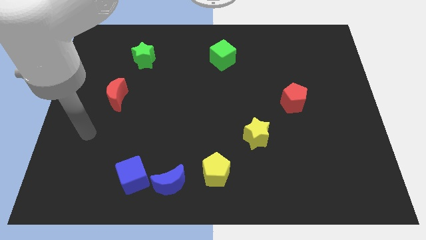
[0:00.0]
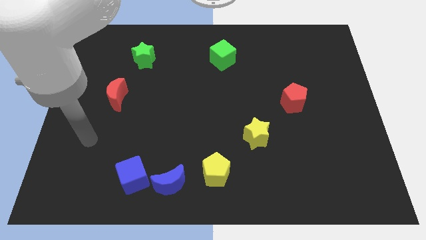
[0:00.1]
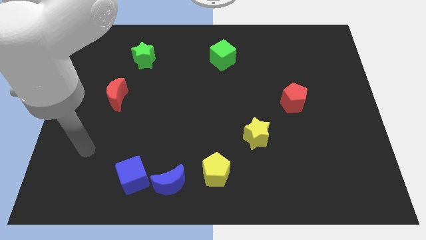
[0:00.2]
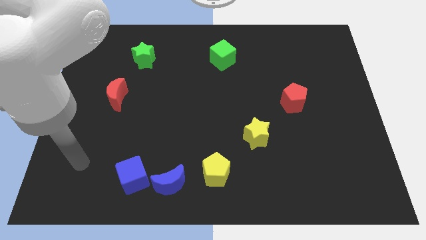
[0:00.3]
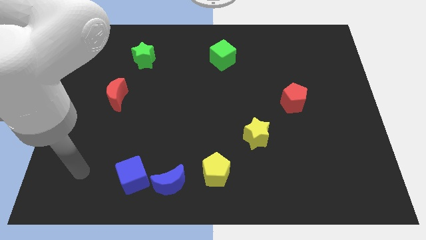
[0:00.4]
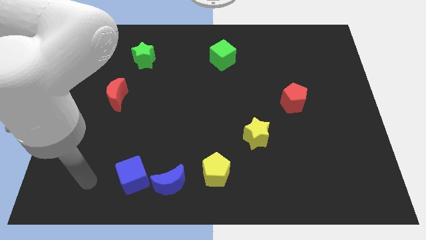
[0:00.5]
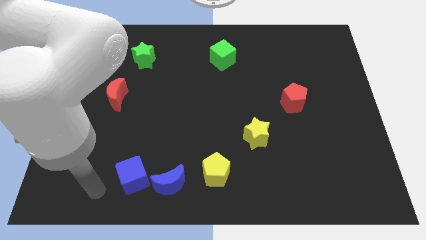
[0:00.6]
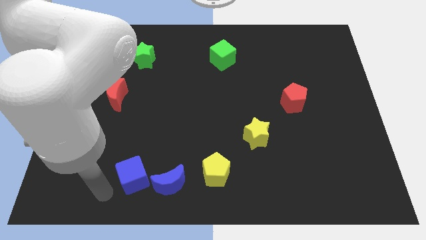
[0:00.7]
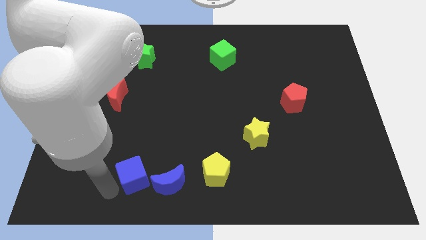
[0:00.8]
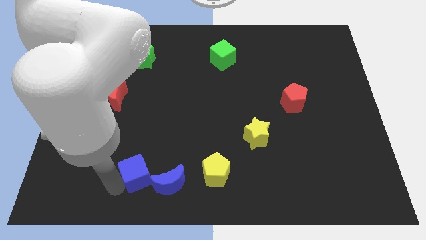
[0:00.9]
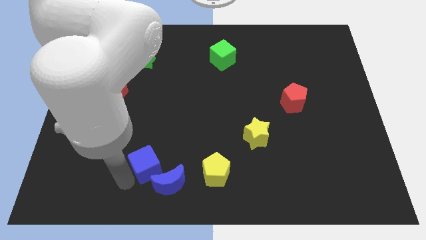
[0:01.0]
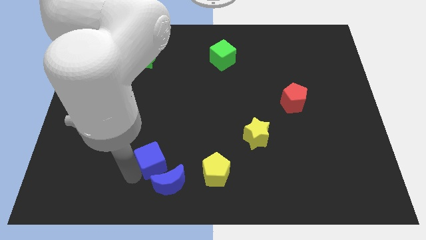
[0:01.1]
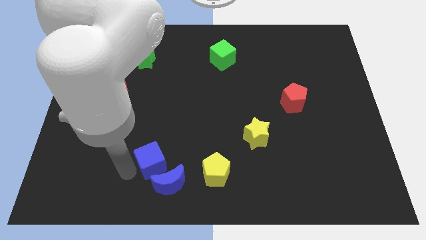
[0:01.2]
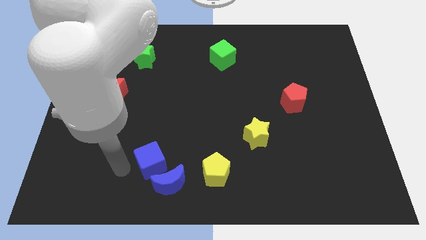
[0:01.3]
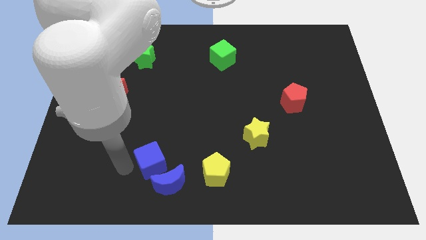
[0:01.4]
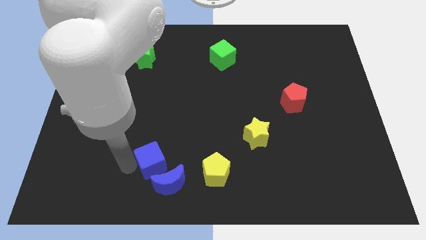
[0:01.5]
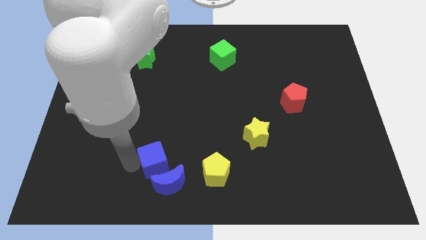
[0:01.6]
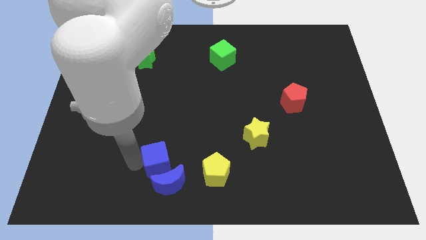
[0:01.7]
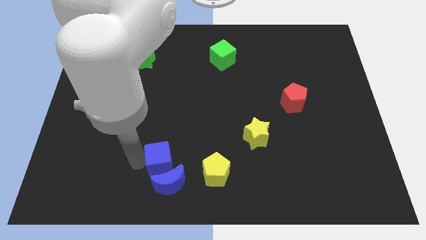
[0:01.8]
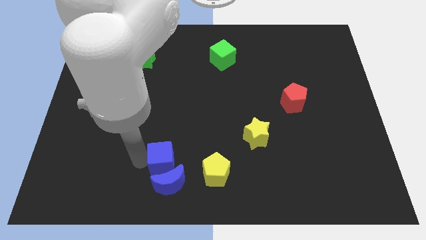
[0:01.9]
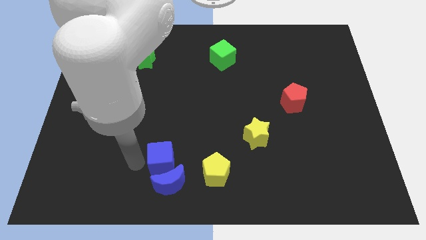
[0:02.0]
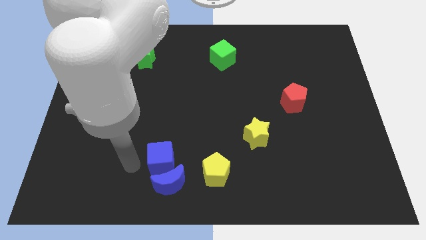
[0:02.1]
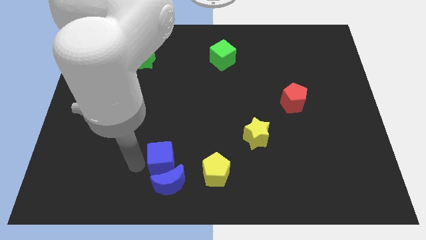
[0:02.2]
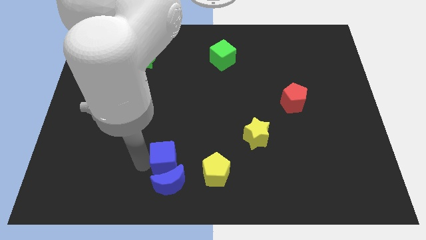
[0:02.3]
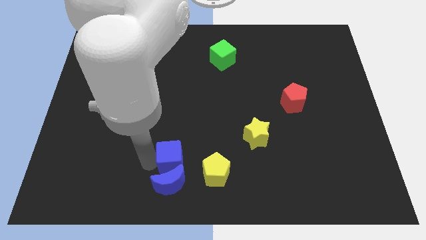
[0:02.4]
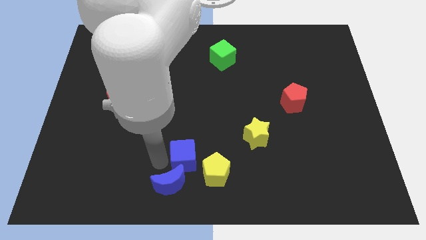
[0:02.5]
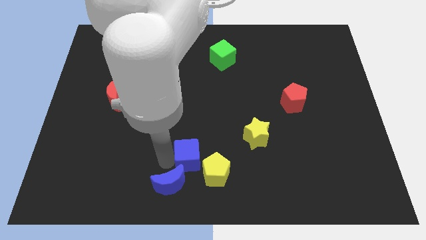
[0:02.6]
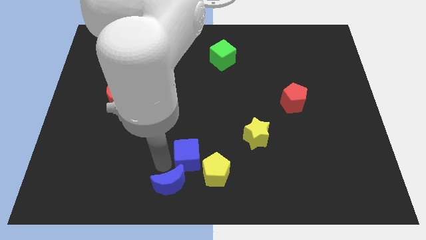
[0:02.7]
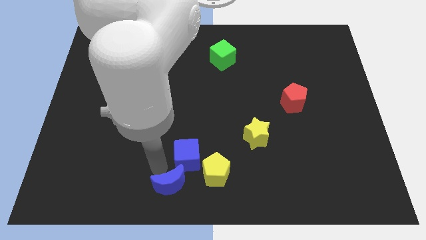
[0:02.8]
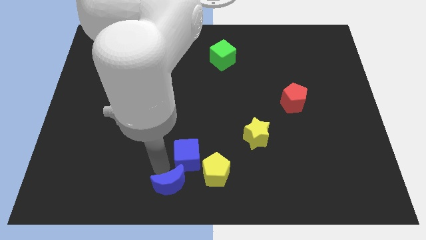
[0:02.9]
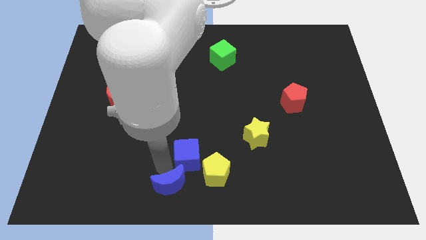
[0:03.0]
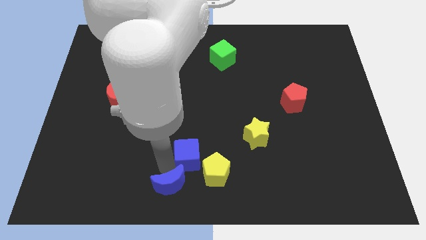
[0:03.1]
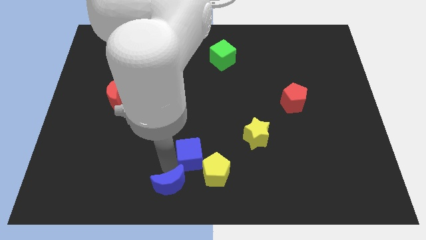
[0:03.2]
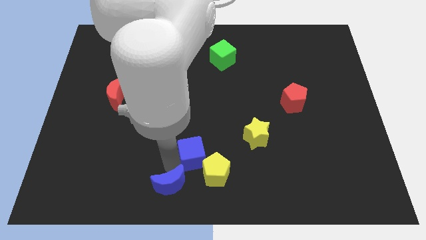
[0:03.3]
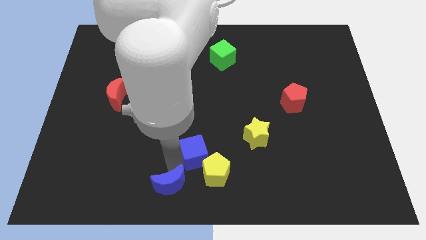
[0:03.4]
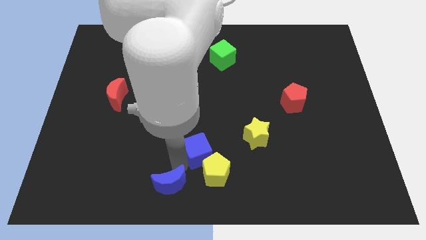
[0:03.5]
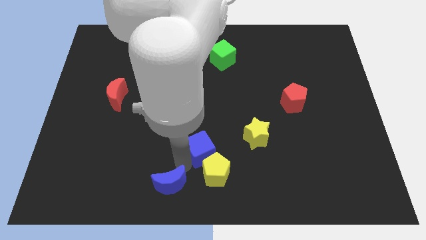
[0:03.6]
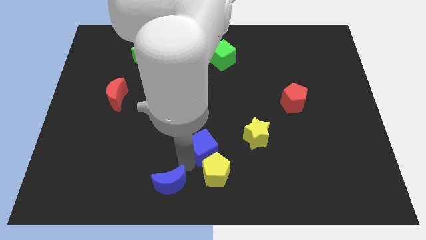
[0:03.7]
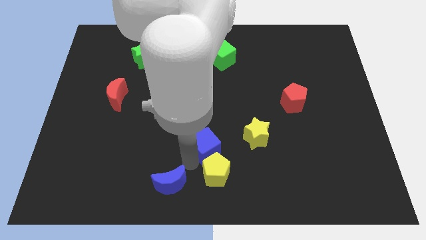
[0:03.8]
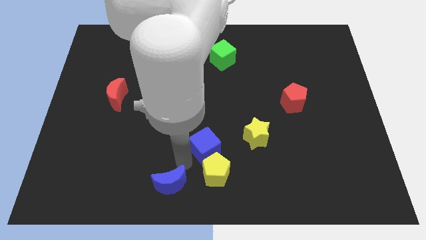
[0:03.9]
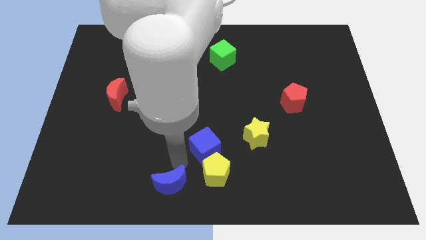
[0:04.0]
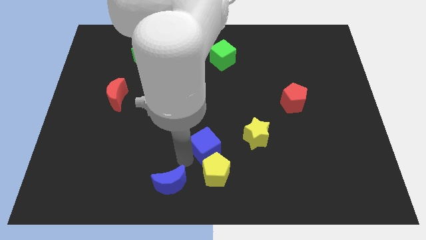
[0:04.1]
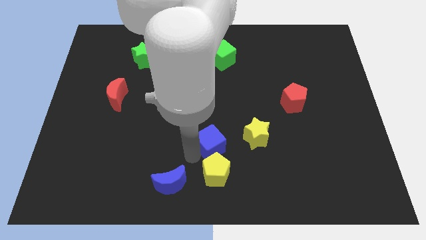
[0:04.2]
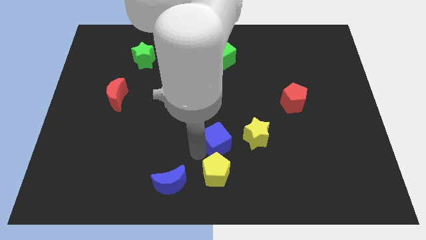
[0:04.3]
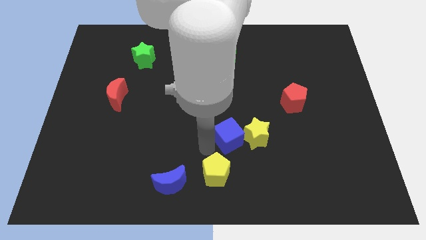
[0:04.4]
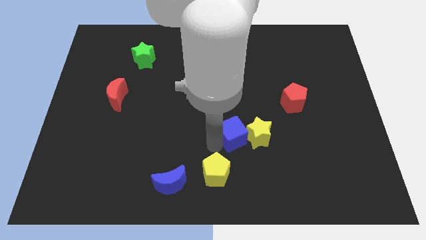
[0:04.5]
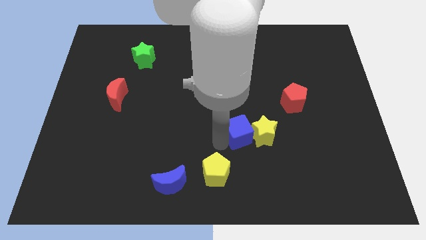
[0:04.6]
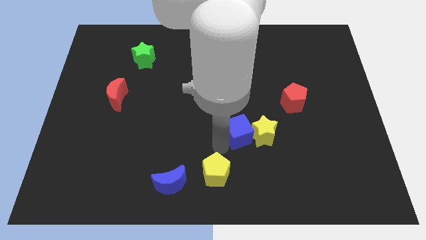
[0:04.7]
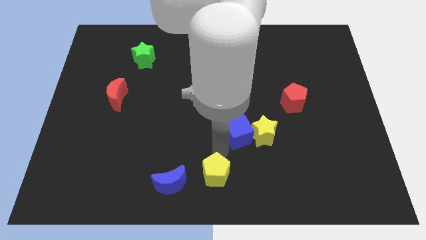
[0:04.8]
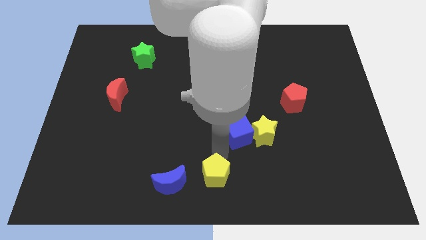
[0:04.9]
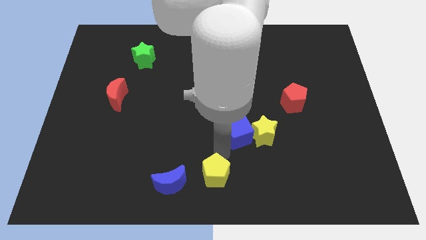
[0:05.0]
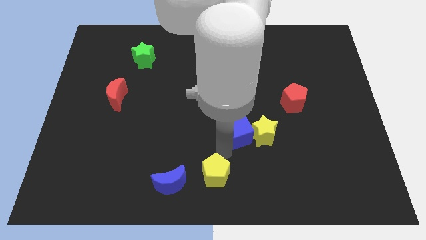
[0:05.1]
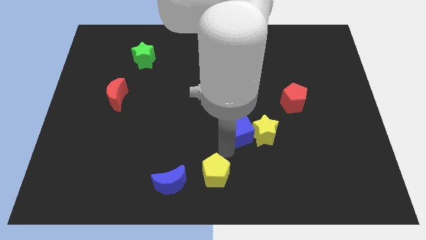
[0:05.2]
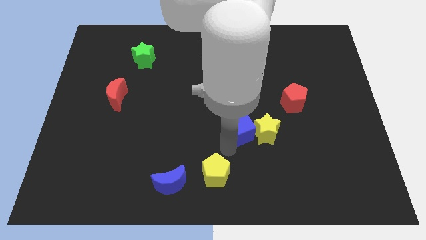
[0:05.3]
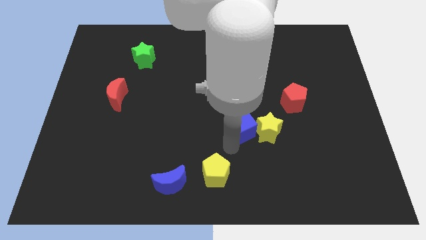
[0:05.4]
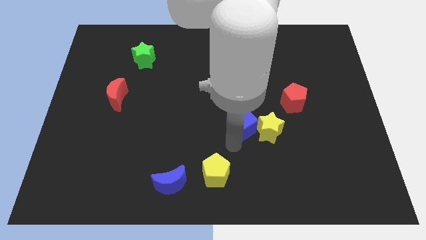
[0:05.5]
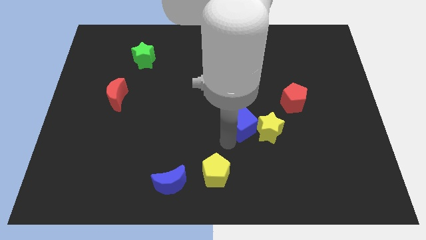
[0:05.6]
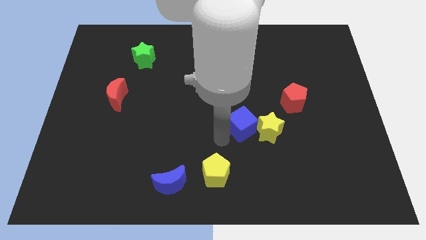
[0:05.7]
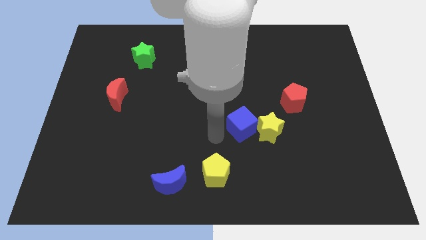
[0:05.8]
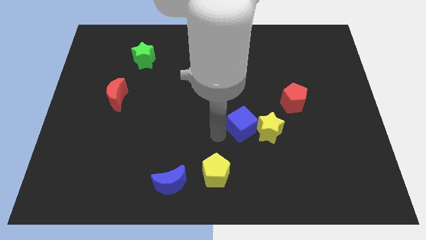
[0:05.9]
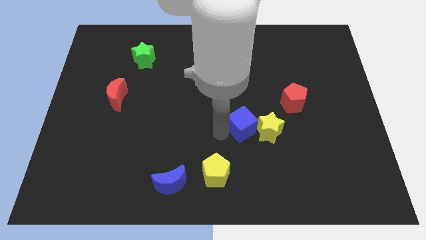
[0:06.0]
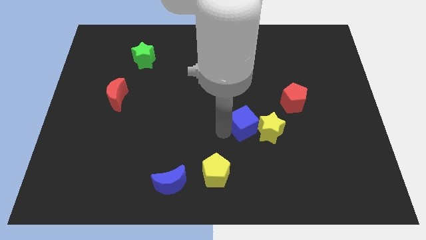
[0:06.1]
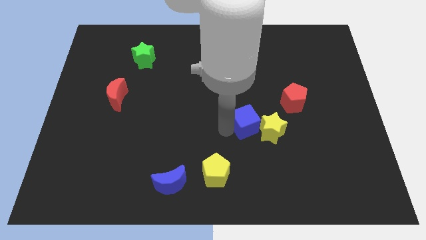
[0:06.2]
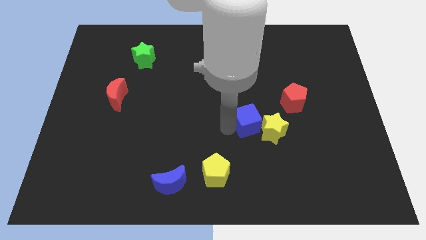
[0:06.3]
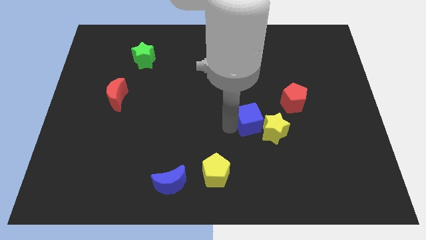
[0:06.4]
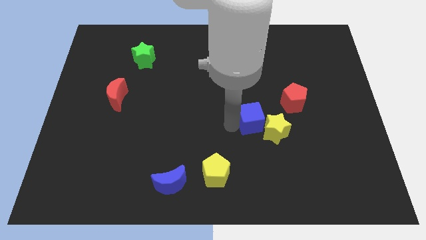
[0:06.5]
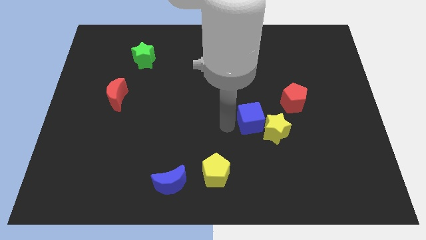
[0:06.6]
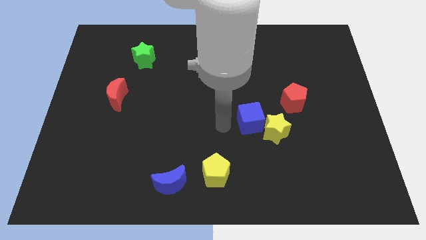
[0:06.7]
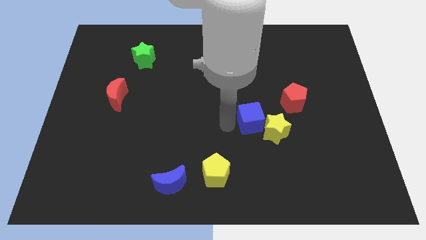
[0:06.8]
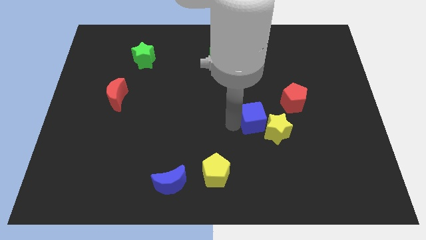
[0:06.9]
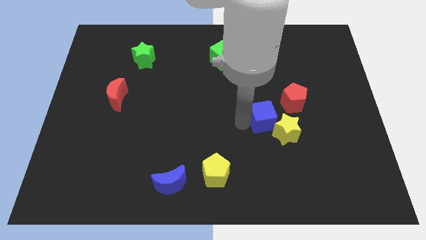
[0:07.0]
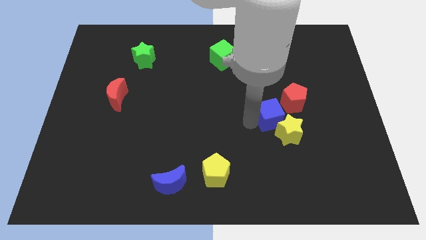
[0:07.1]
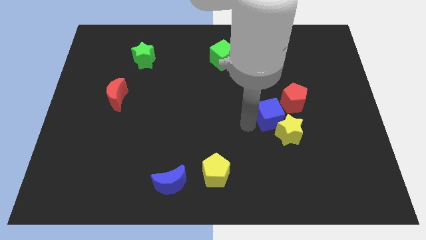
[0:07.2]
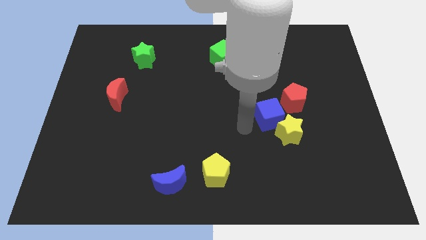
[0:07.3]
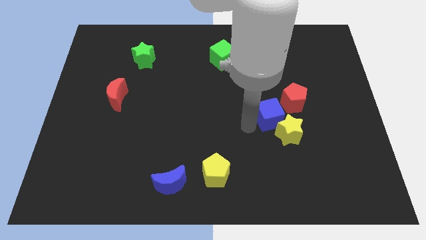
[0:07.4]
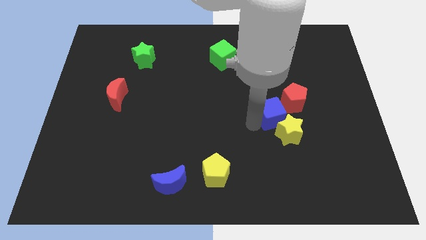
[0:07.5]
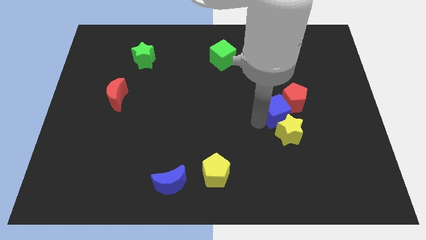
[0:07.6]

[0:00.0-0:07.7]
push the blue cube to the red pentagon
